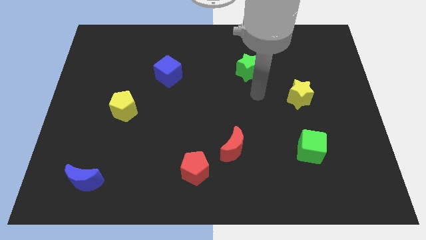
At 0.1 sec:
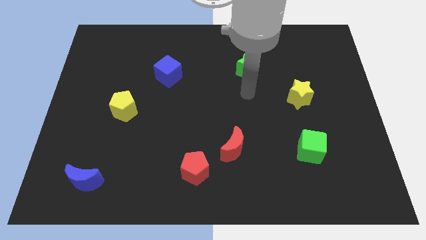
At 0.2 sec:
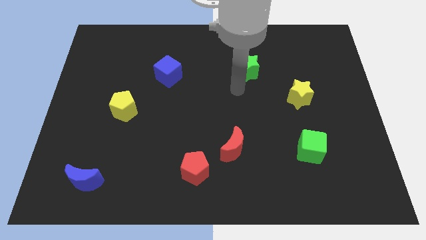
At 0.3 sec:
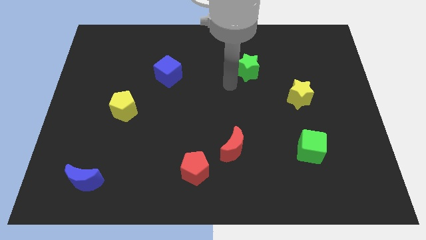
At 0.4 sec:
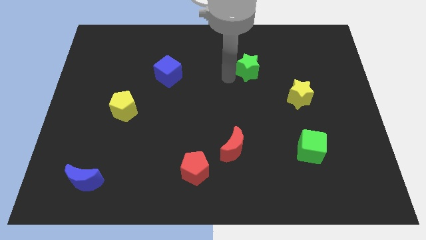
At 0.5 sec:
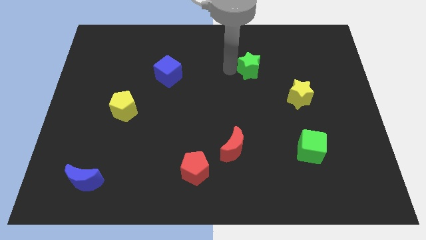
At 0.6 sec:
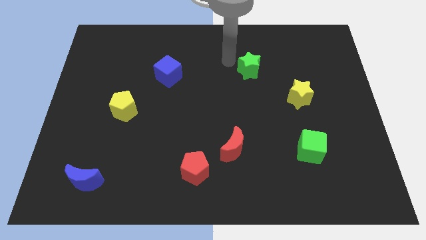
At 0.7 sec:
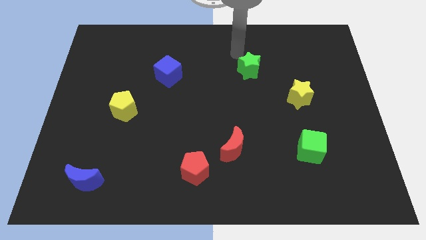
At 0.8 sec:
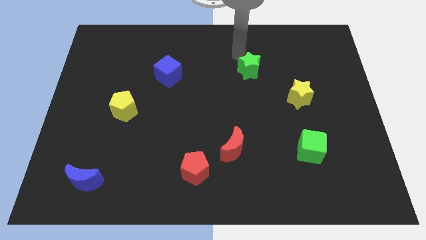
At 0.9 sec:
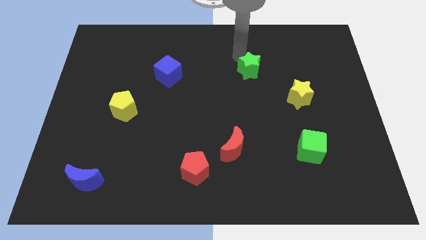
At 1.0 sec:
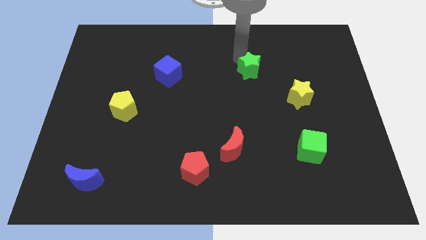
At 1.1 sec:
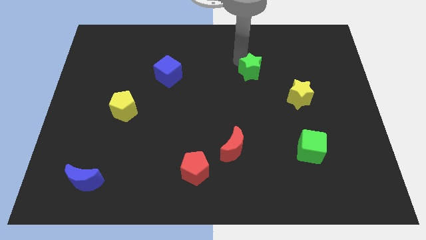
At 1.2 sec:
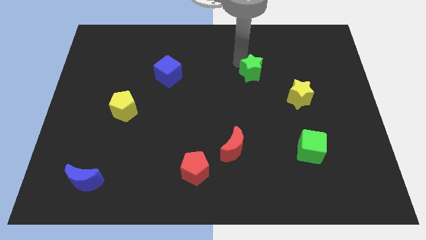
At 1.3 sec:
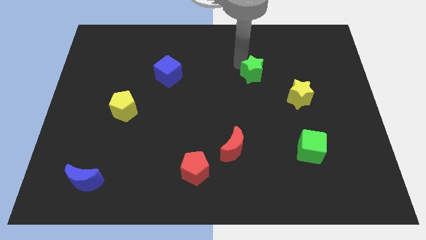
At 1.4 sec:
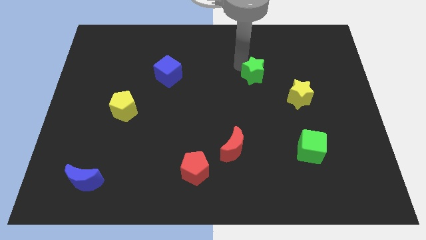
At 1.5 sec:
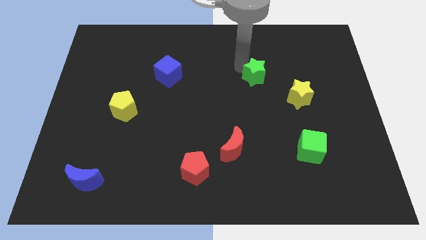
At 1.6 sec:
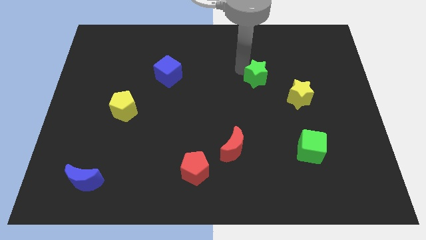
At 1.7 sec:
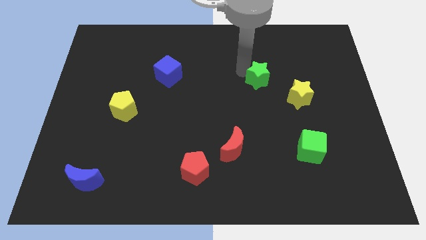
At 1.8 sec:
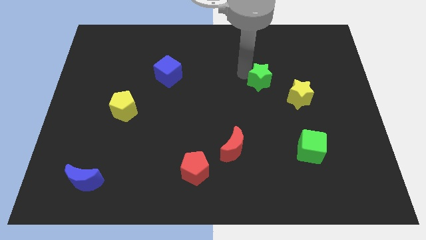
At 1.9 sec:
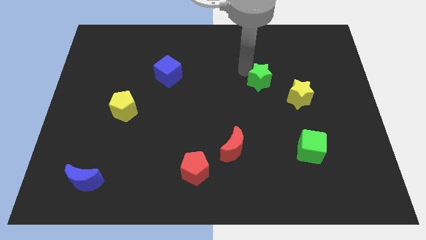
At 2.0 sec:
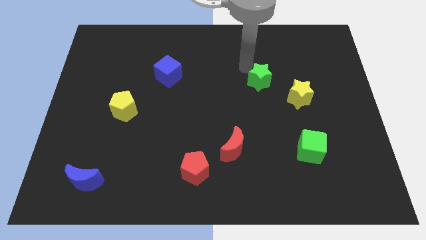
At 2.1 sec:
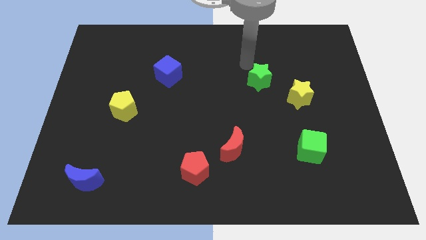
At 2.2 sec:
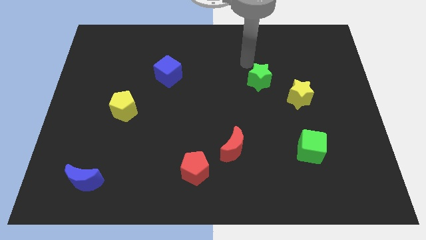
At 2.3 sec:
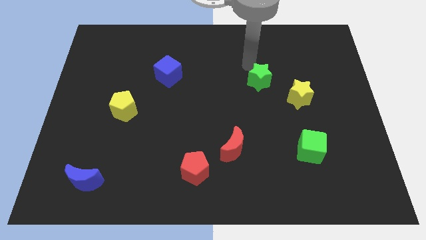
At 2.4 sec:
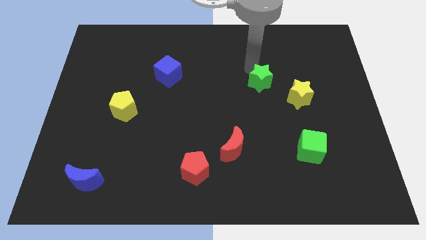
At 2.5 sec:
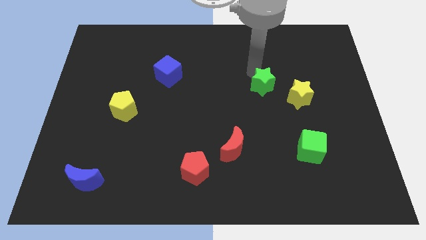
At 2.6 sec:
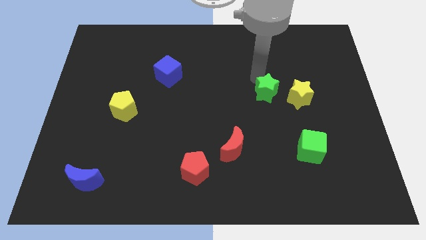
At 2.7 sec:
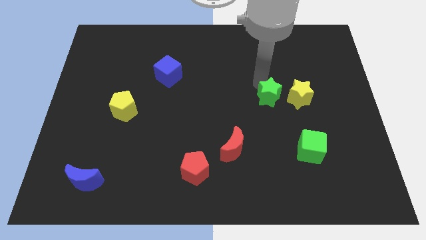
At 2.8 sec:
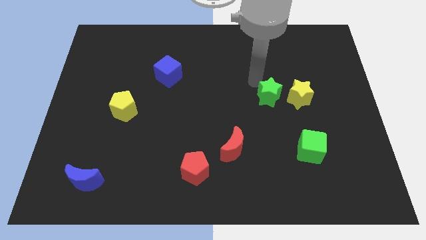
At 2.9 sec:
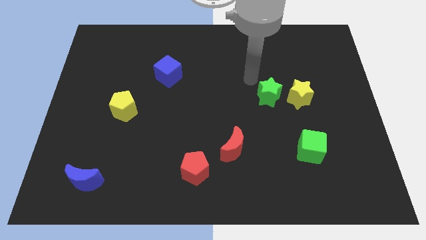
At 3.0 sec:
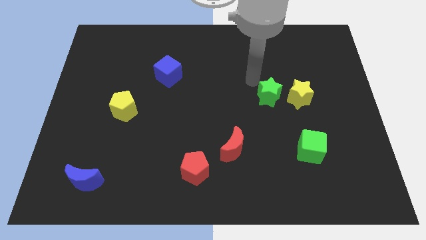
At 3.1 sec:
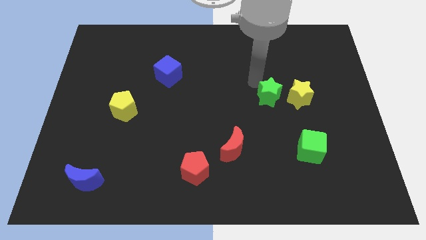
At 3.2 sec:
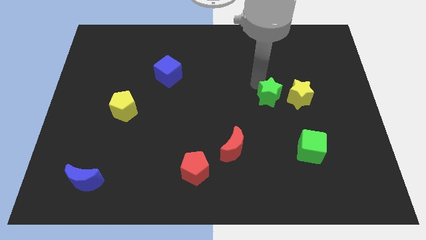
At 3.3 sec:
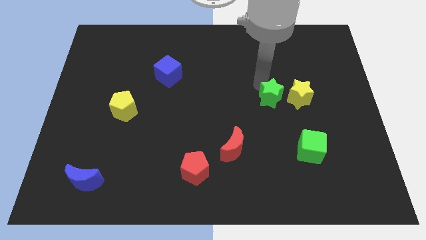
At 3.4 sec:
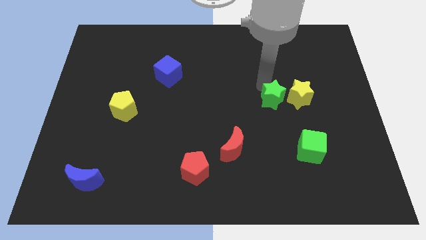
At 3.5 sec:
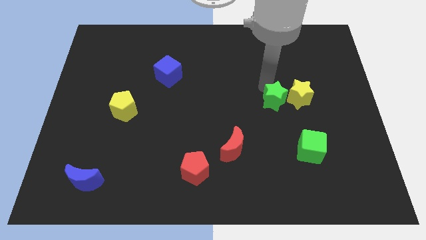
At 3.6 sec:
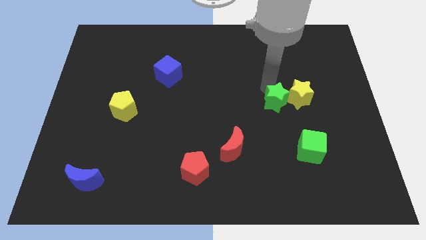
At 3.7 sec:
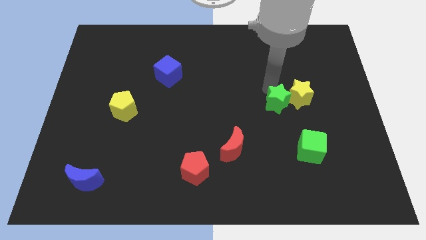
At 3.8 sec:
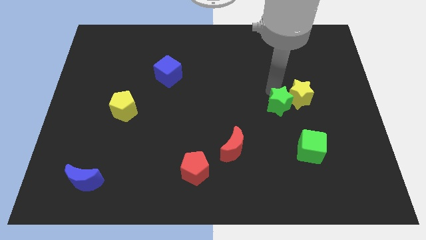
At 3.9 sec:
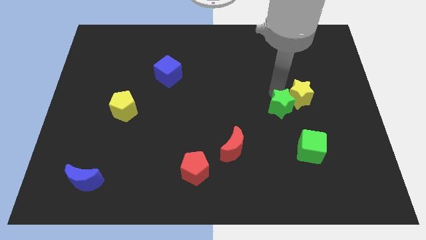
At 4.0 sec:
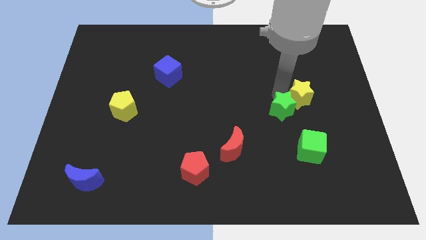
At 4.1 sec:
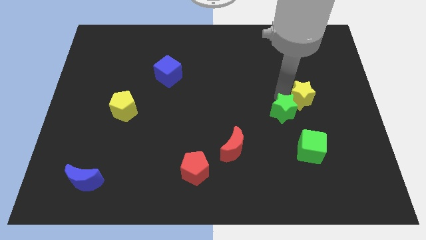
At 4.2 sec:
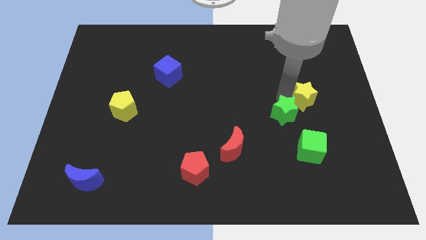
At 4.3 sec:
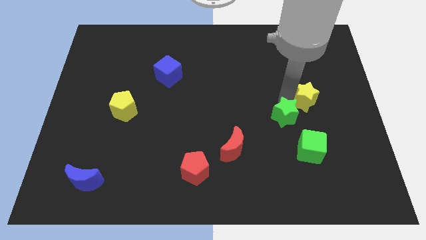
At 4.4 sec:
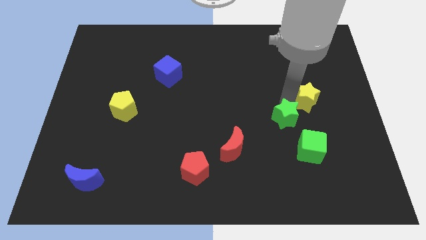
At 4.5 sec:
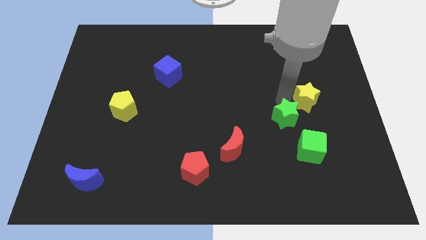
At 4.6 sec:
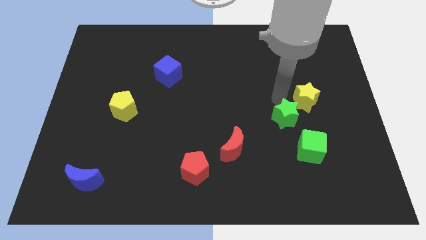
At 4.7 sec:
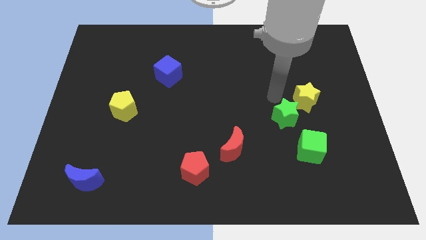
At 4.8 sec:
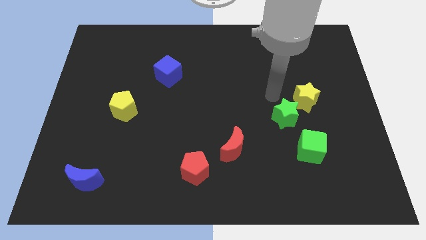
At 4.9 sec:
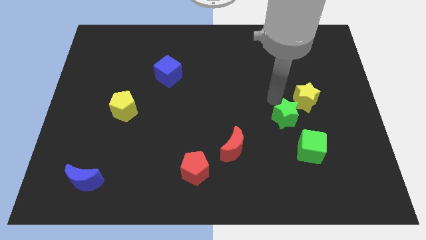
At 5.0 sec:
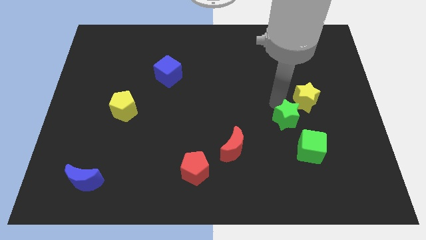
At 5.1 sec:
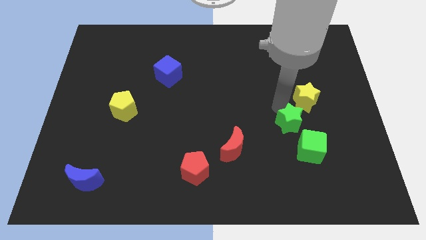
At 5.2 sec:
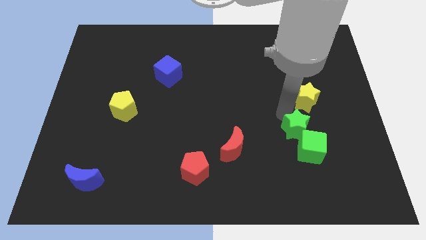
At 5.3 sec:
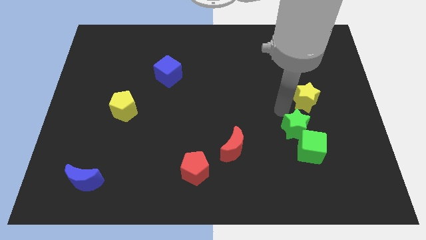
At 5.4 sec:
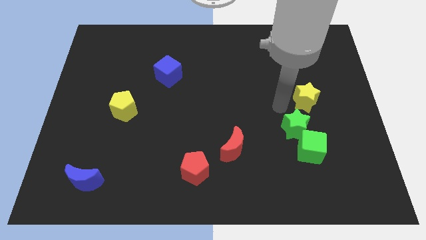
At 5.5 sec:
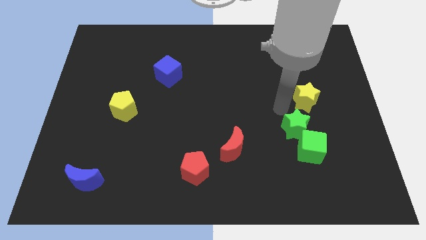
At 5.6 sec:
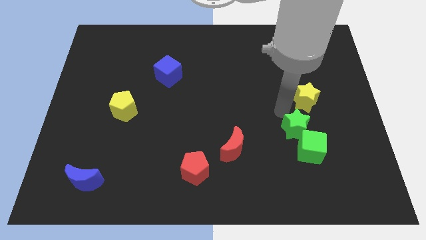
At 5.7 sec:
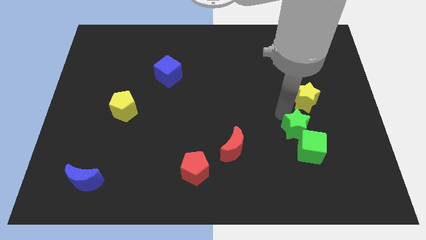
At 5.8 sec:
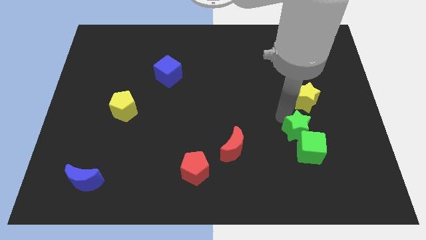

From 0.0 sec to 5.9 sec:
move the green star next to the green cube
